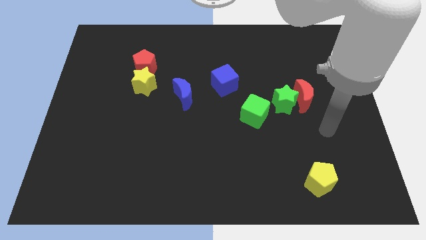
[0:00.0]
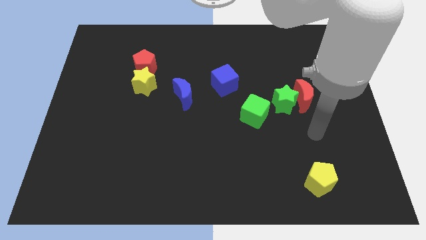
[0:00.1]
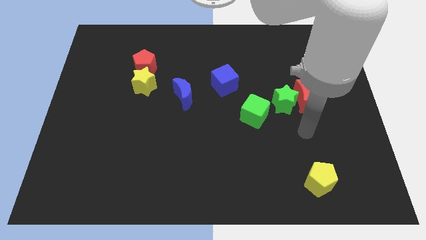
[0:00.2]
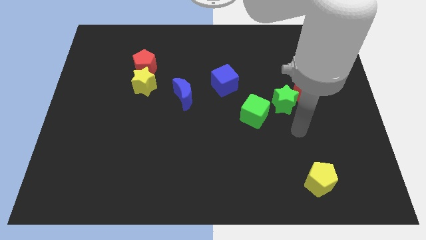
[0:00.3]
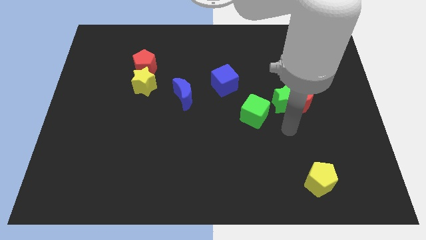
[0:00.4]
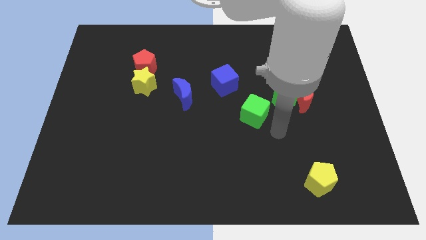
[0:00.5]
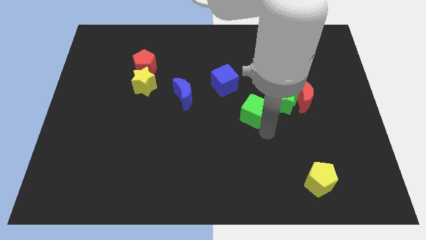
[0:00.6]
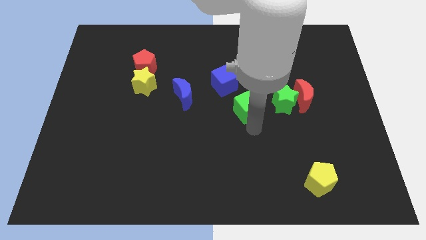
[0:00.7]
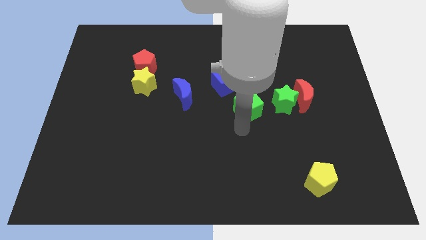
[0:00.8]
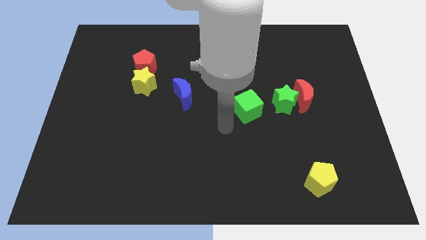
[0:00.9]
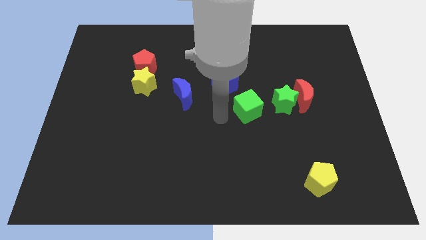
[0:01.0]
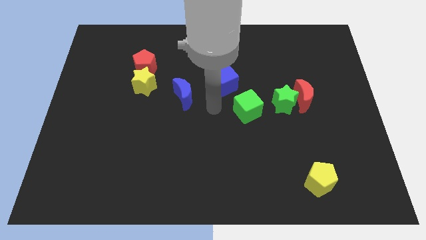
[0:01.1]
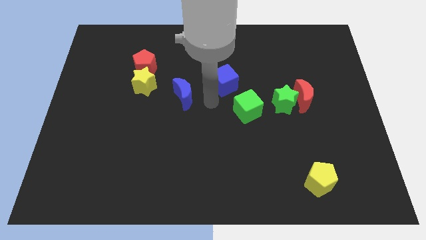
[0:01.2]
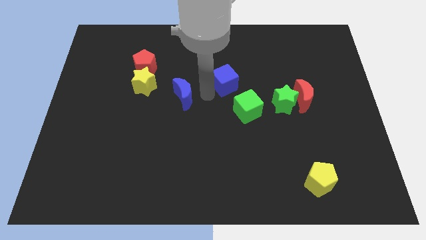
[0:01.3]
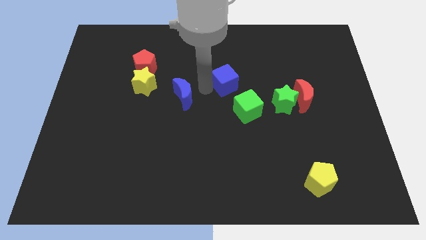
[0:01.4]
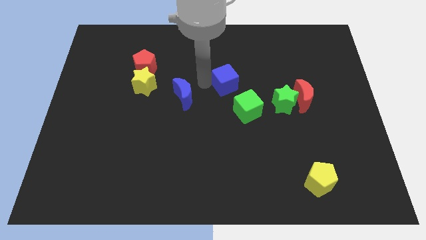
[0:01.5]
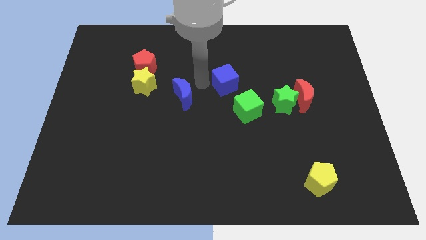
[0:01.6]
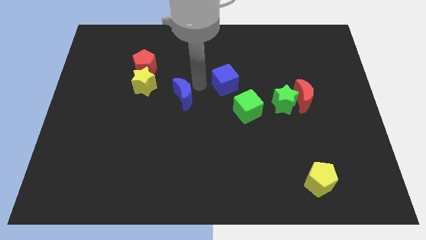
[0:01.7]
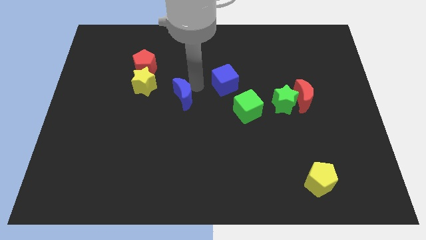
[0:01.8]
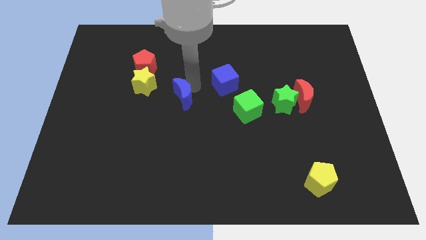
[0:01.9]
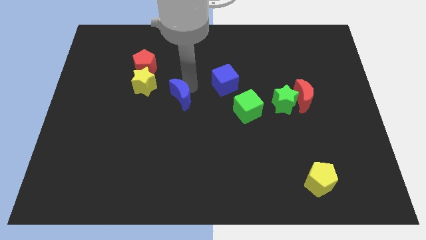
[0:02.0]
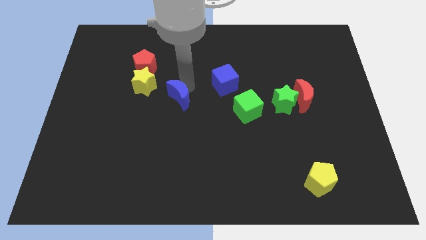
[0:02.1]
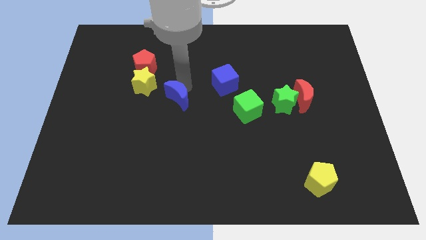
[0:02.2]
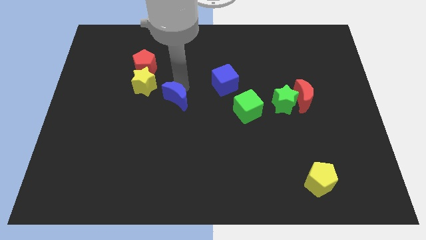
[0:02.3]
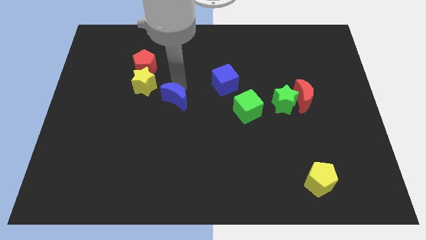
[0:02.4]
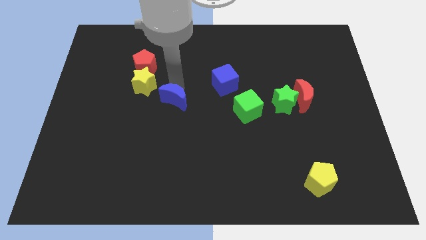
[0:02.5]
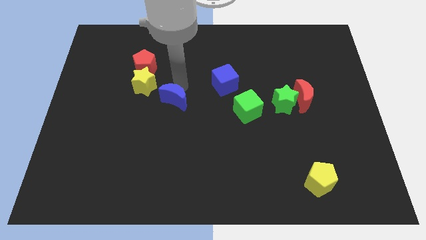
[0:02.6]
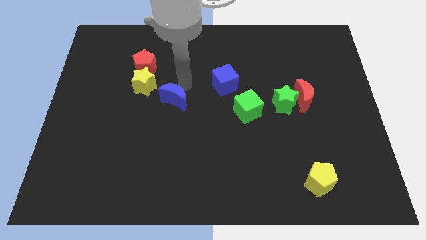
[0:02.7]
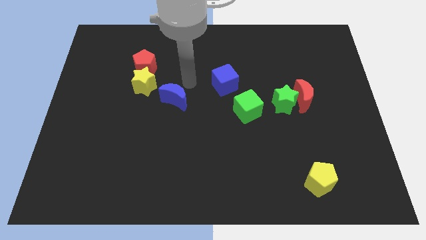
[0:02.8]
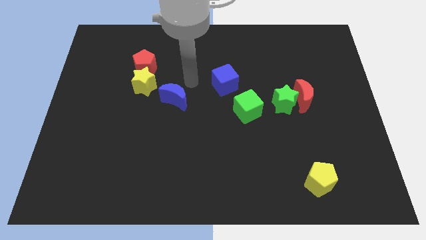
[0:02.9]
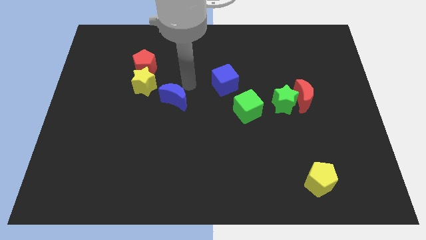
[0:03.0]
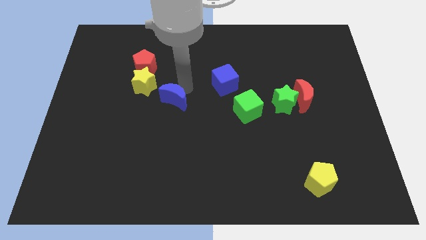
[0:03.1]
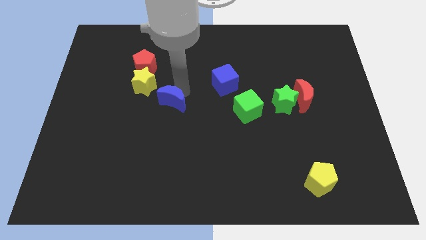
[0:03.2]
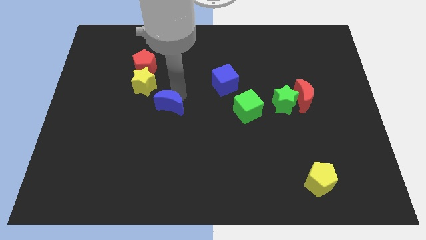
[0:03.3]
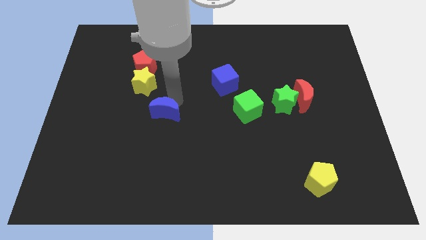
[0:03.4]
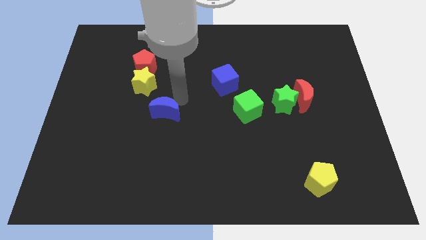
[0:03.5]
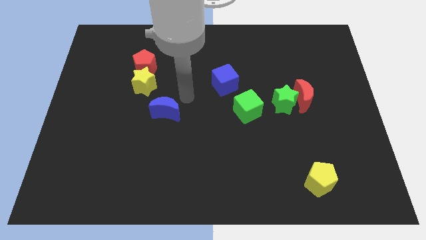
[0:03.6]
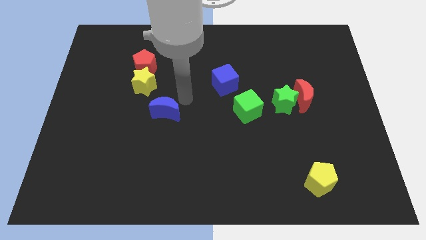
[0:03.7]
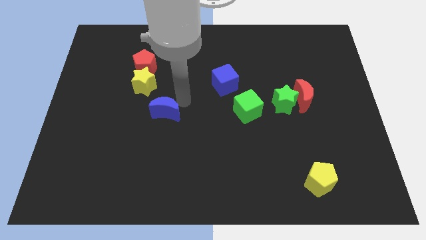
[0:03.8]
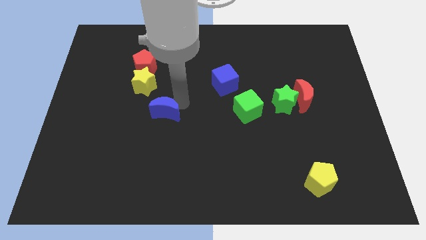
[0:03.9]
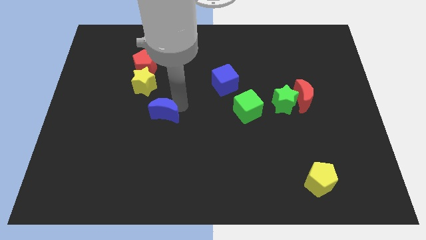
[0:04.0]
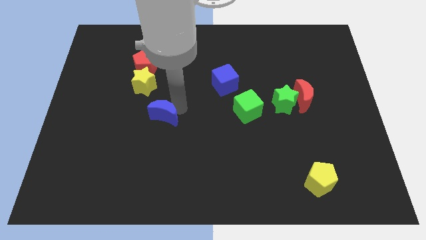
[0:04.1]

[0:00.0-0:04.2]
push the blue moon downwards and to the left diagonally a little bit

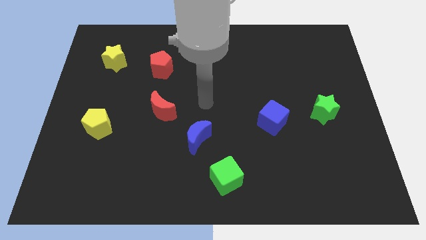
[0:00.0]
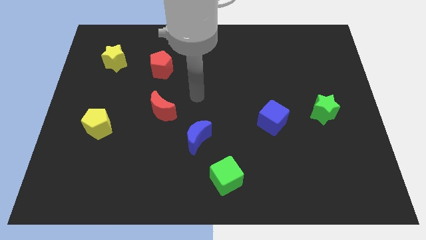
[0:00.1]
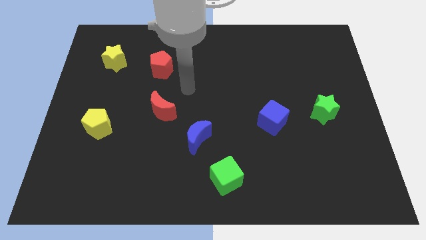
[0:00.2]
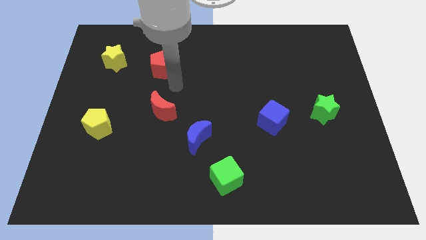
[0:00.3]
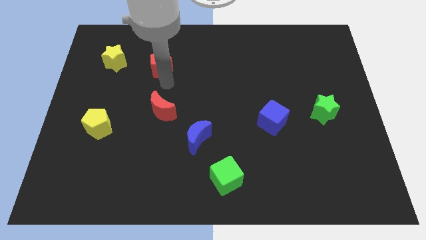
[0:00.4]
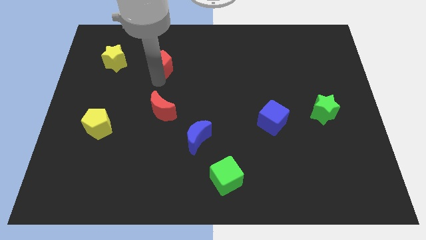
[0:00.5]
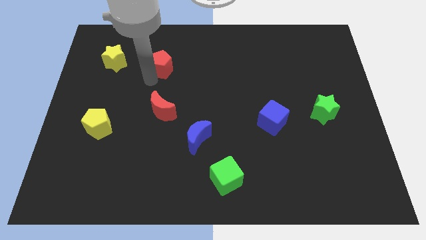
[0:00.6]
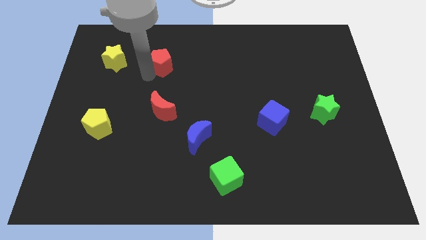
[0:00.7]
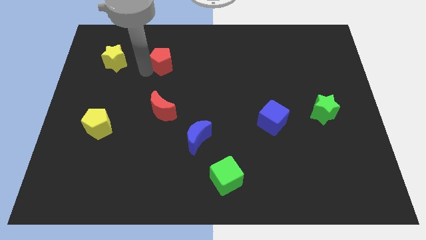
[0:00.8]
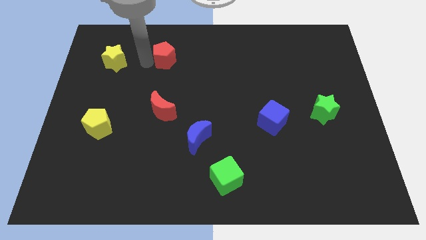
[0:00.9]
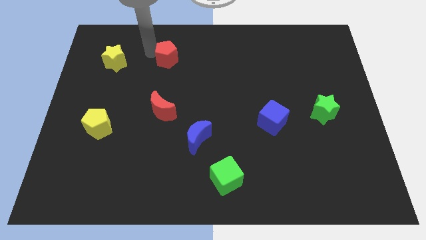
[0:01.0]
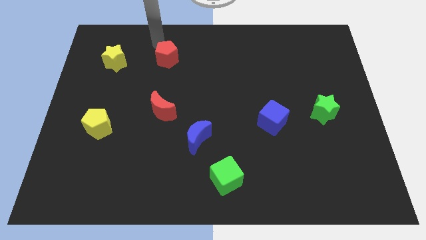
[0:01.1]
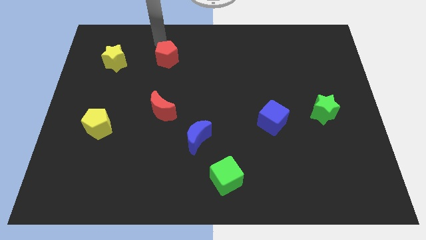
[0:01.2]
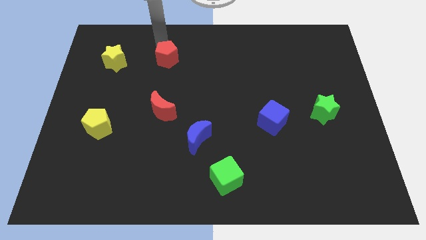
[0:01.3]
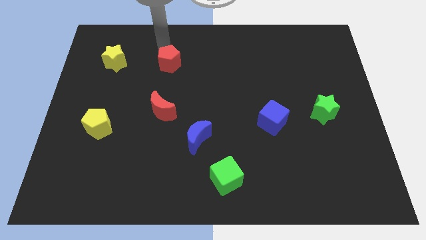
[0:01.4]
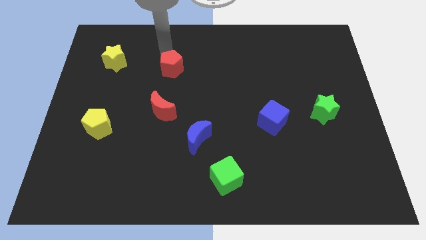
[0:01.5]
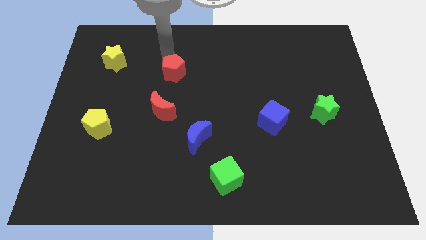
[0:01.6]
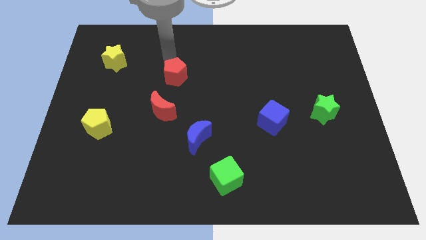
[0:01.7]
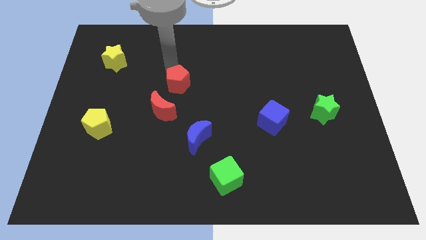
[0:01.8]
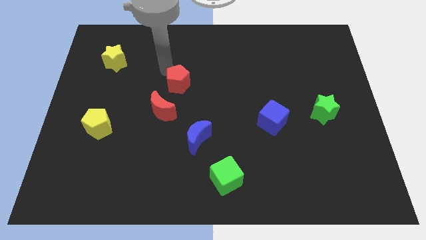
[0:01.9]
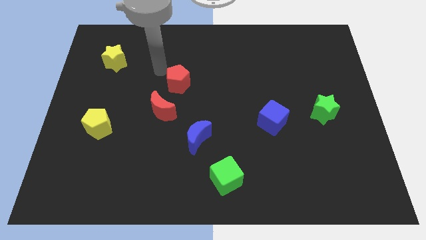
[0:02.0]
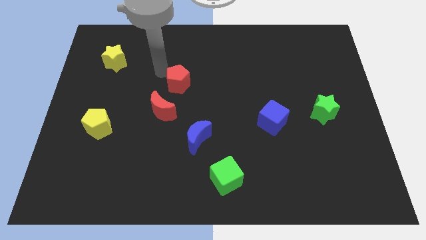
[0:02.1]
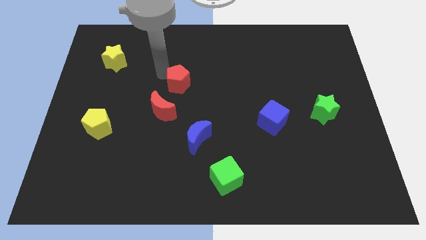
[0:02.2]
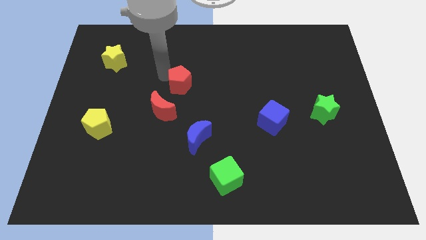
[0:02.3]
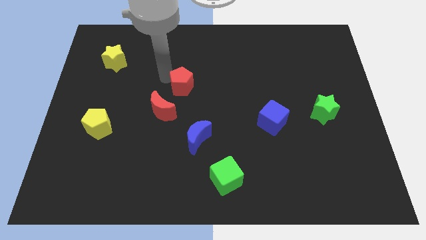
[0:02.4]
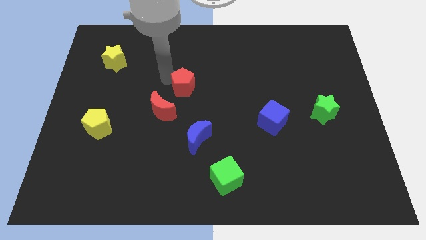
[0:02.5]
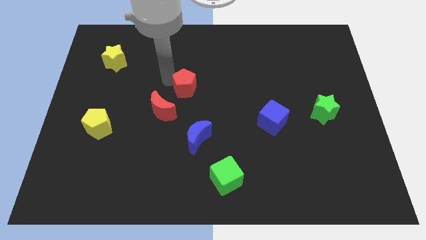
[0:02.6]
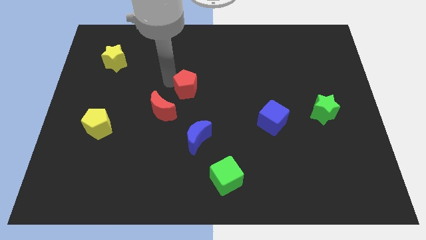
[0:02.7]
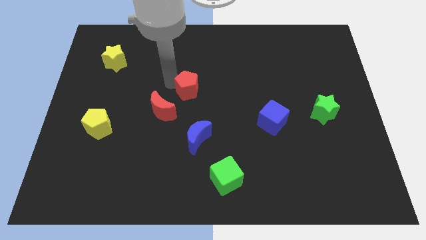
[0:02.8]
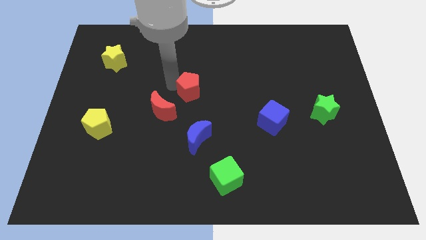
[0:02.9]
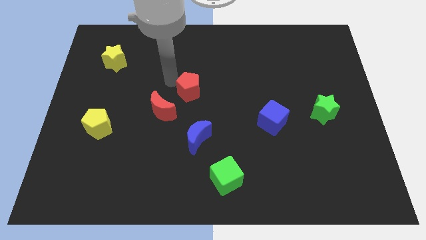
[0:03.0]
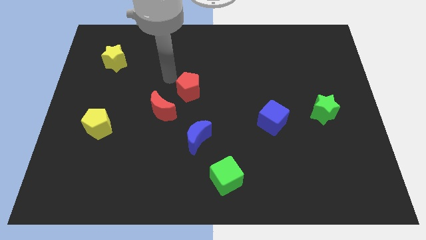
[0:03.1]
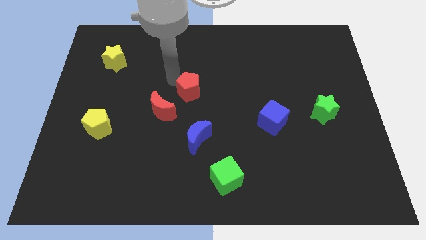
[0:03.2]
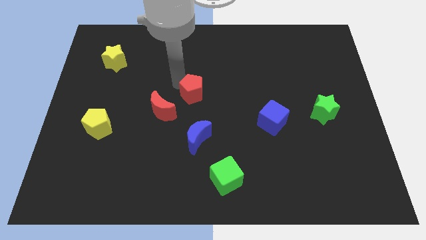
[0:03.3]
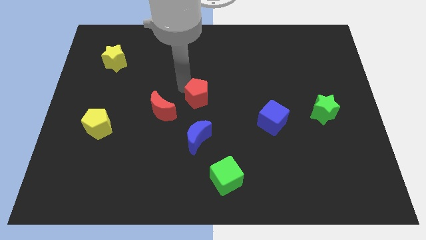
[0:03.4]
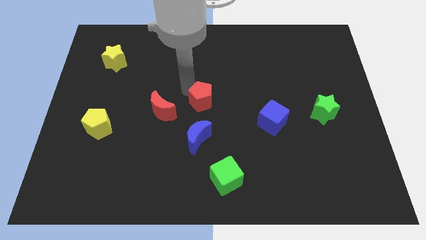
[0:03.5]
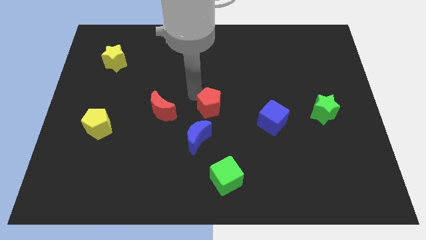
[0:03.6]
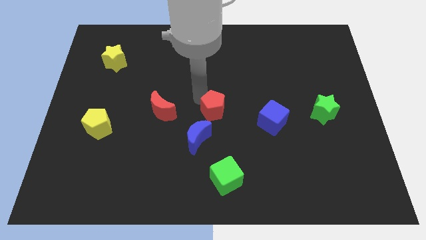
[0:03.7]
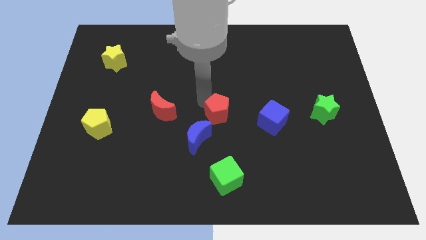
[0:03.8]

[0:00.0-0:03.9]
push the red pentagon diagonally down and to the right

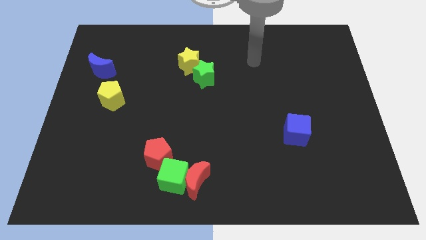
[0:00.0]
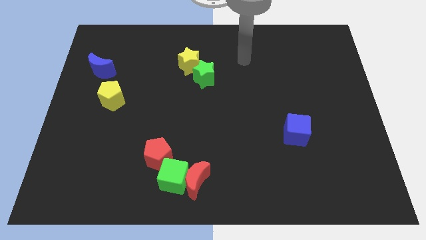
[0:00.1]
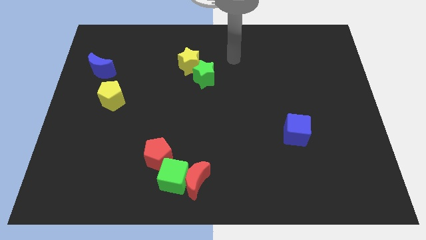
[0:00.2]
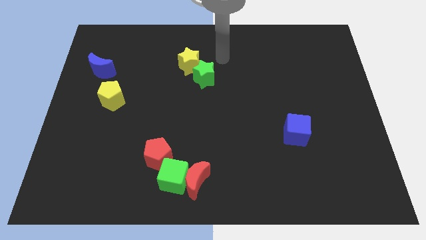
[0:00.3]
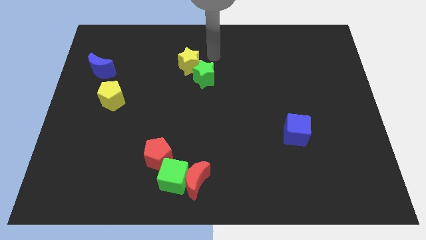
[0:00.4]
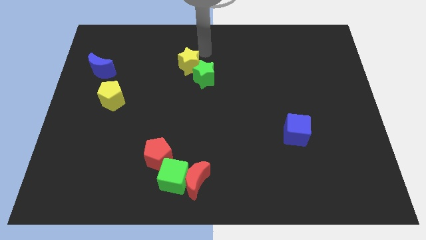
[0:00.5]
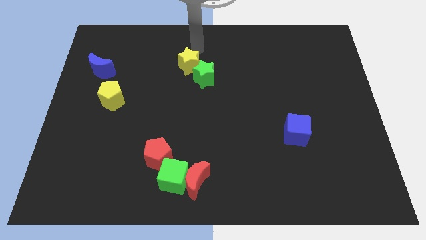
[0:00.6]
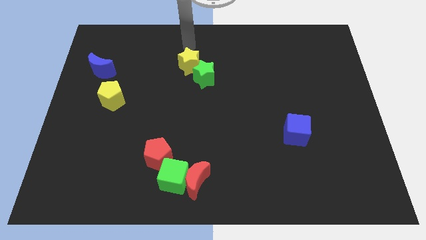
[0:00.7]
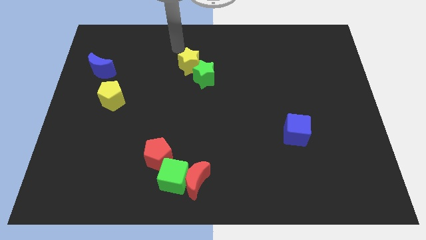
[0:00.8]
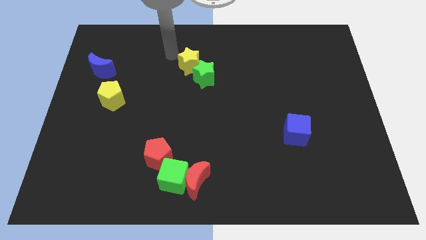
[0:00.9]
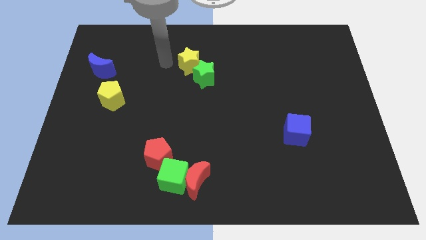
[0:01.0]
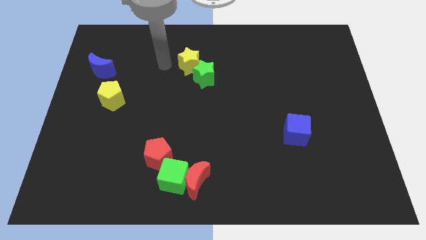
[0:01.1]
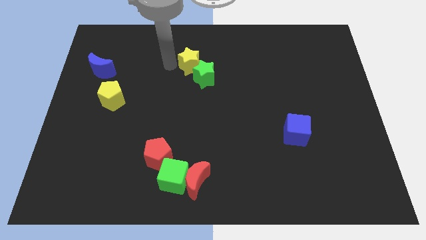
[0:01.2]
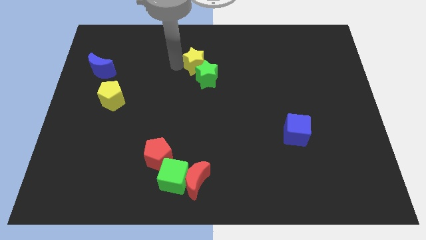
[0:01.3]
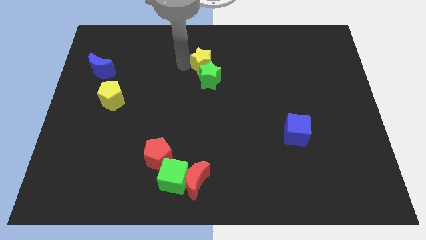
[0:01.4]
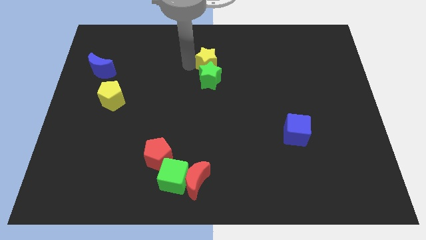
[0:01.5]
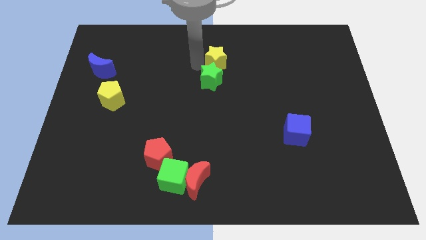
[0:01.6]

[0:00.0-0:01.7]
push the yellow star a bit to the right
